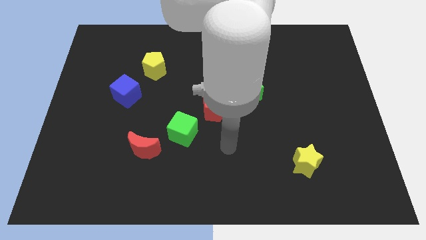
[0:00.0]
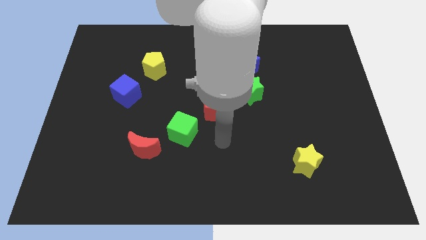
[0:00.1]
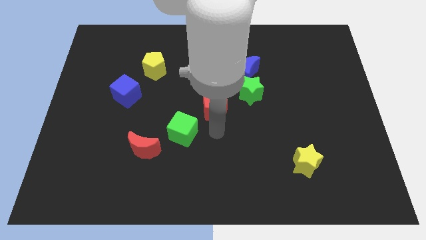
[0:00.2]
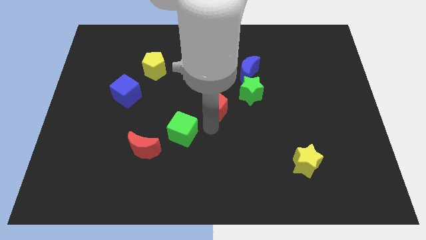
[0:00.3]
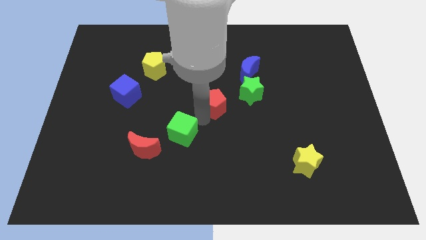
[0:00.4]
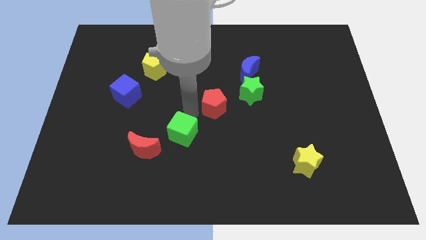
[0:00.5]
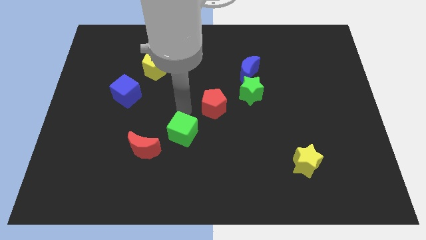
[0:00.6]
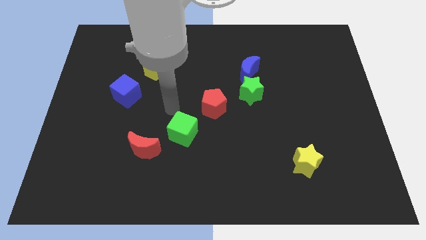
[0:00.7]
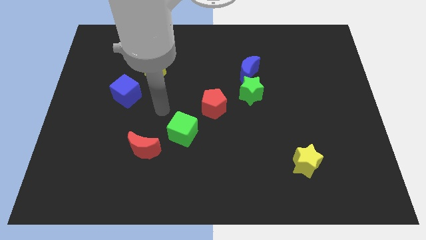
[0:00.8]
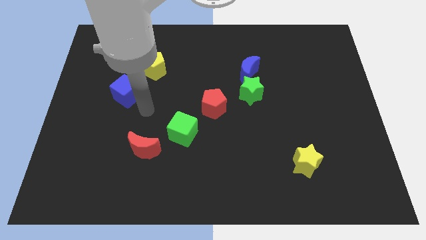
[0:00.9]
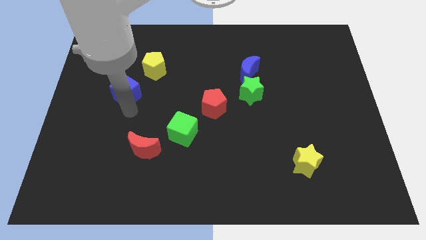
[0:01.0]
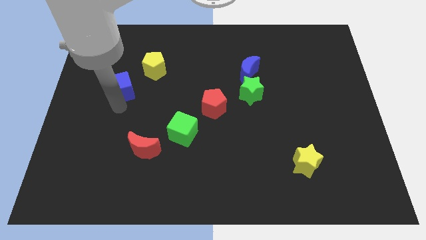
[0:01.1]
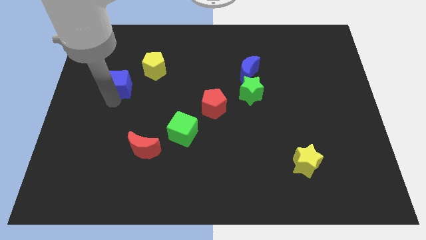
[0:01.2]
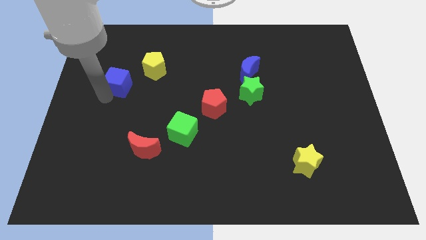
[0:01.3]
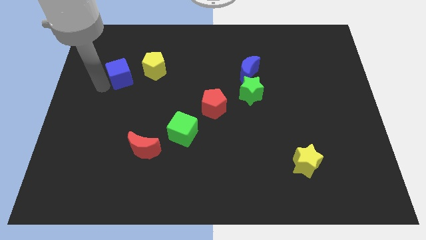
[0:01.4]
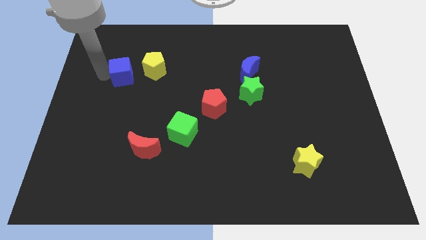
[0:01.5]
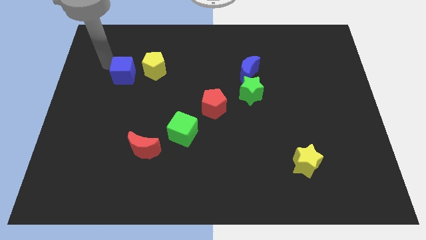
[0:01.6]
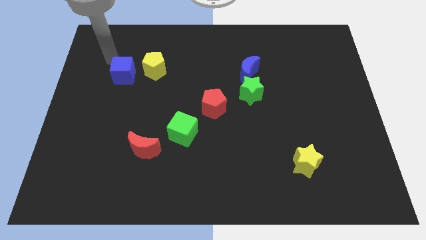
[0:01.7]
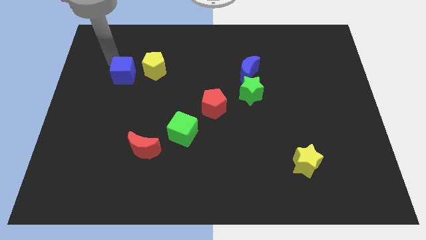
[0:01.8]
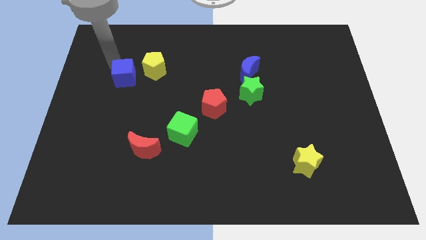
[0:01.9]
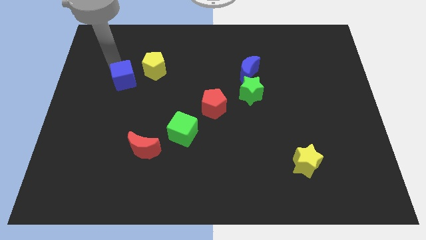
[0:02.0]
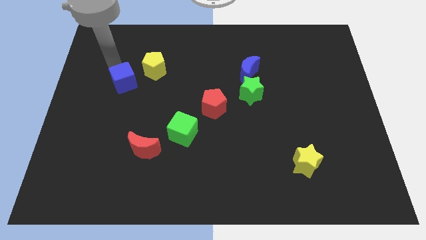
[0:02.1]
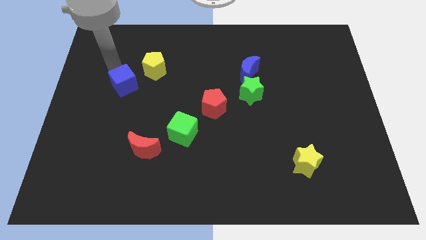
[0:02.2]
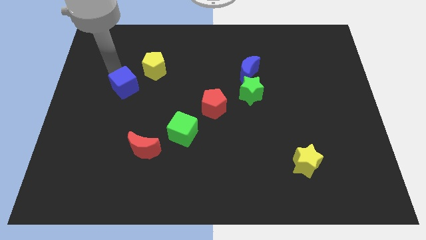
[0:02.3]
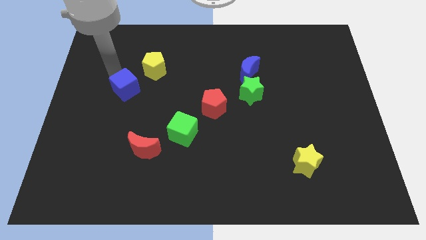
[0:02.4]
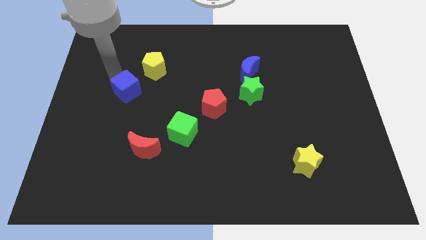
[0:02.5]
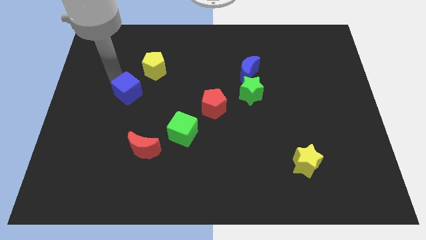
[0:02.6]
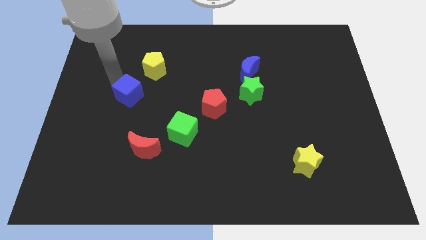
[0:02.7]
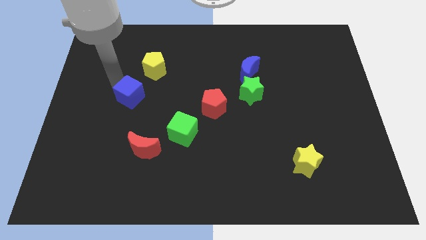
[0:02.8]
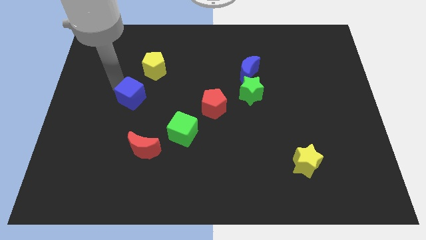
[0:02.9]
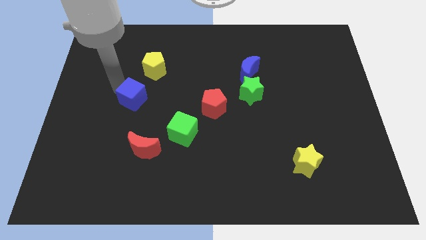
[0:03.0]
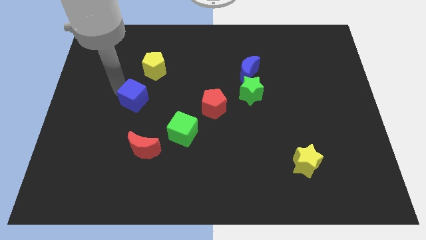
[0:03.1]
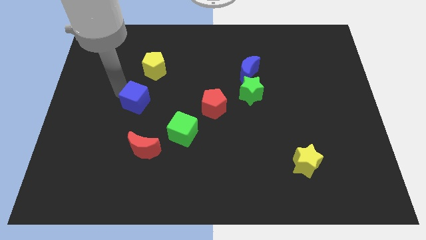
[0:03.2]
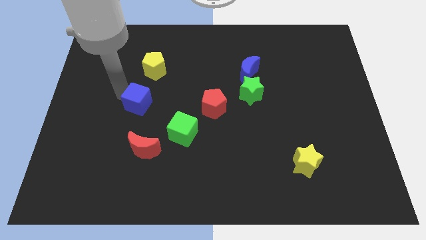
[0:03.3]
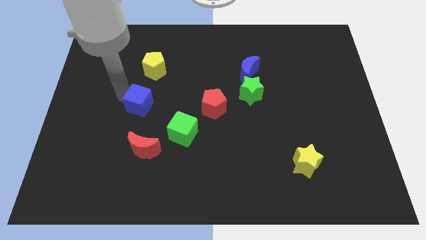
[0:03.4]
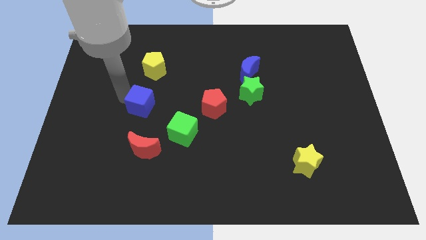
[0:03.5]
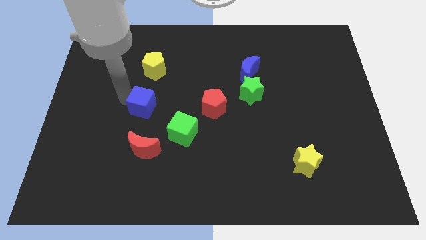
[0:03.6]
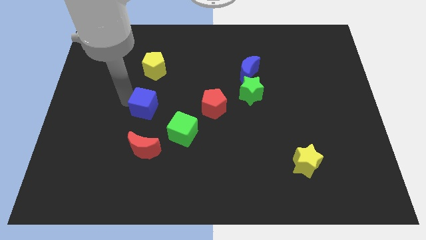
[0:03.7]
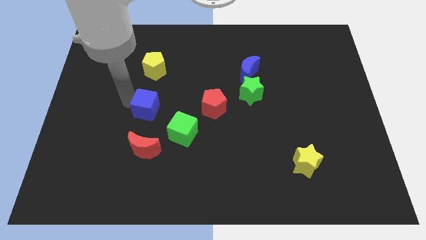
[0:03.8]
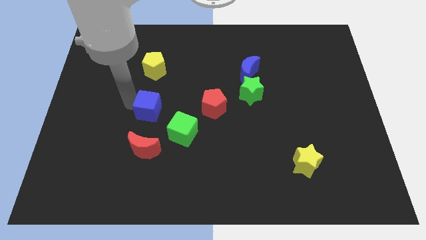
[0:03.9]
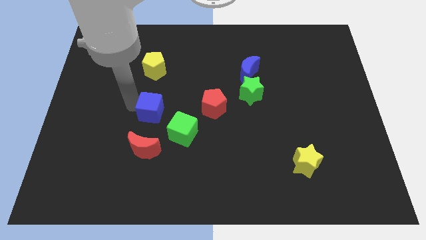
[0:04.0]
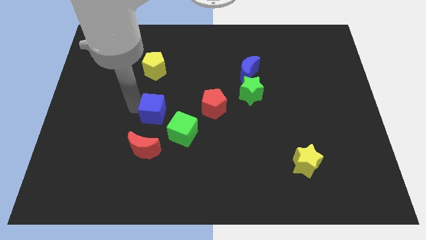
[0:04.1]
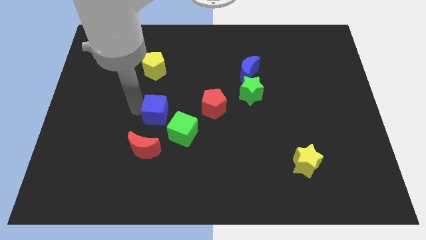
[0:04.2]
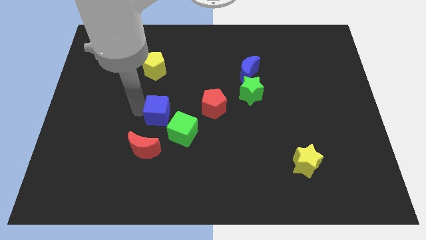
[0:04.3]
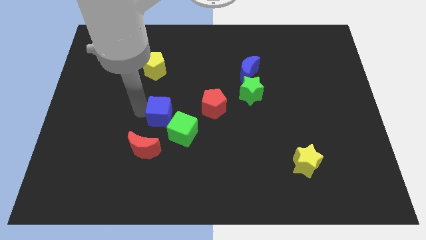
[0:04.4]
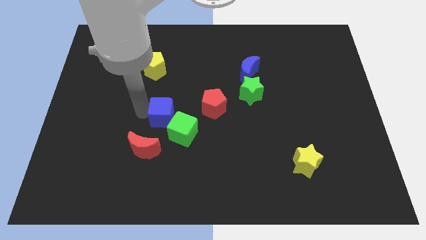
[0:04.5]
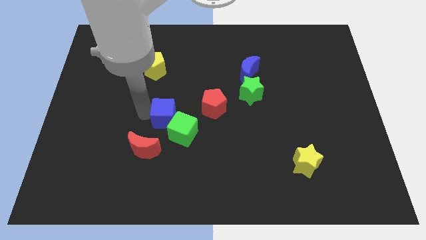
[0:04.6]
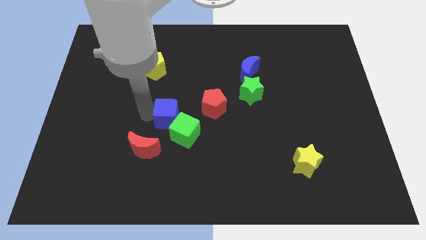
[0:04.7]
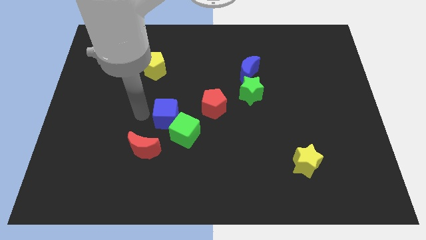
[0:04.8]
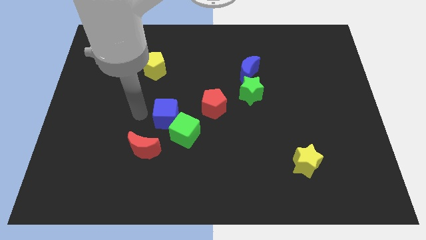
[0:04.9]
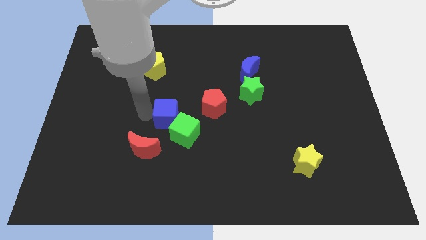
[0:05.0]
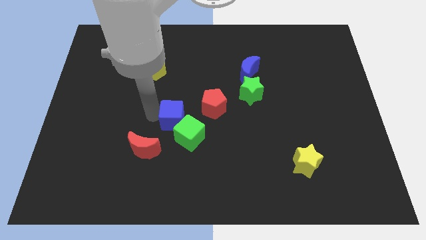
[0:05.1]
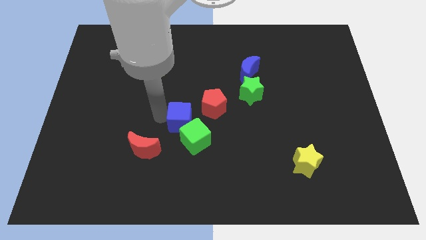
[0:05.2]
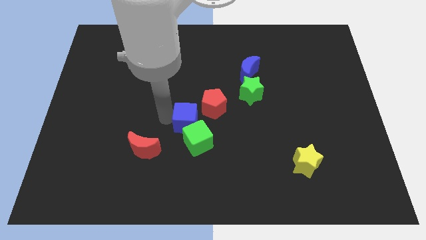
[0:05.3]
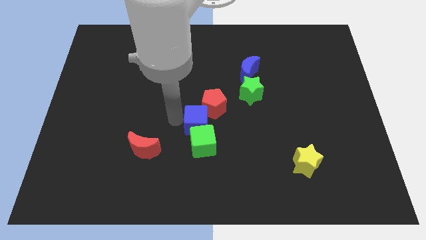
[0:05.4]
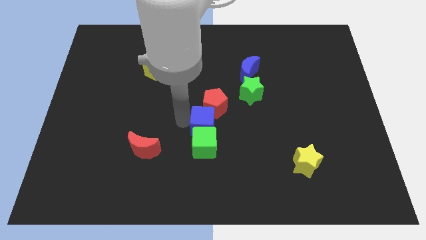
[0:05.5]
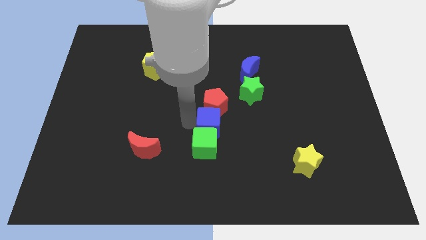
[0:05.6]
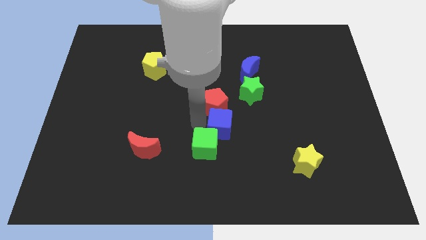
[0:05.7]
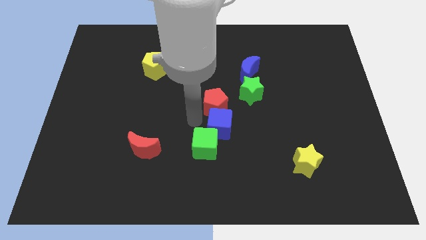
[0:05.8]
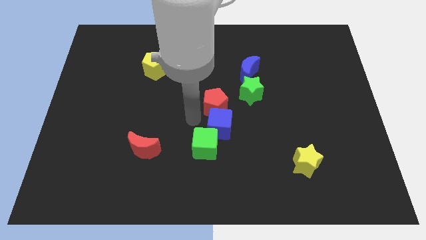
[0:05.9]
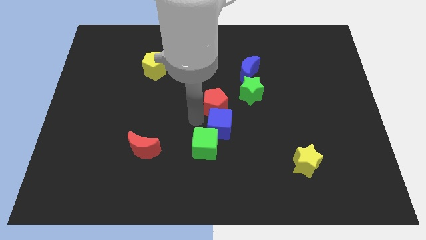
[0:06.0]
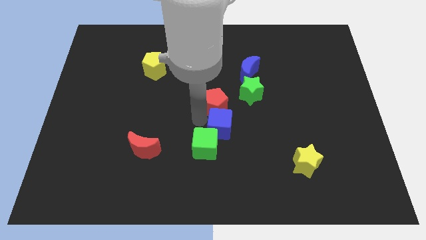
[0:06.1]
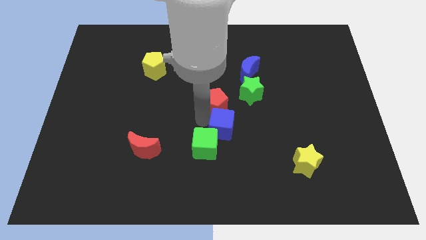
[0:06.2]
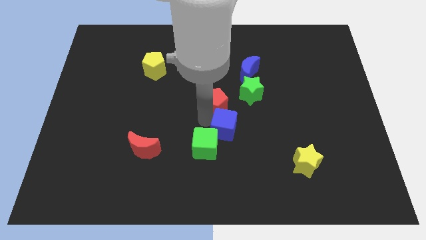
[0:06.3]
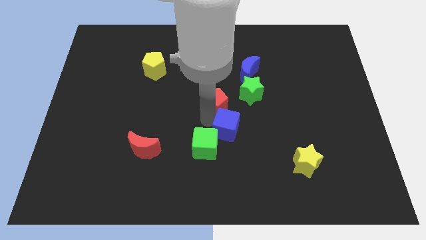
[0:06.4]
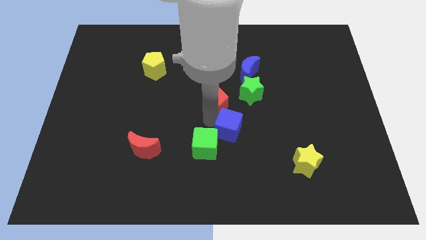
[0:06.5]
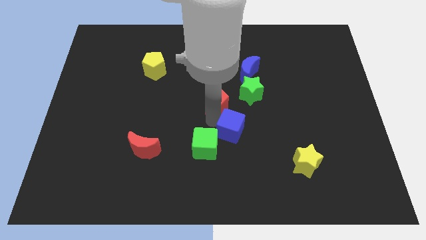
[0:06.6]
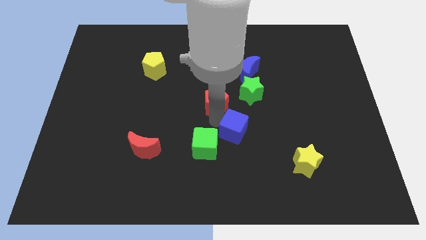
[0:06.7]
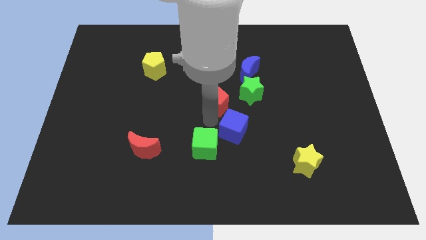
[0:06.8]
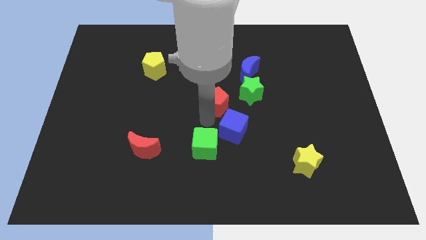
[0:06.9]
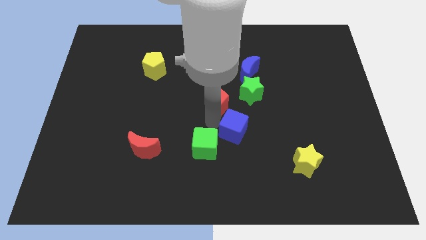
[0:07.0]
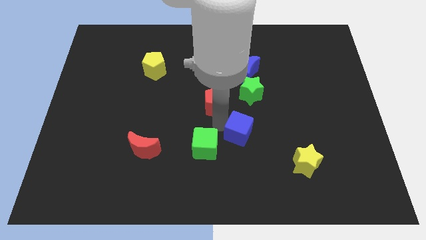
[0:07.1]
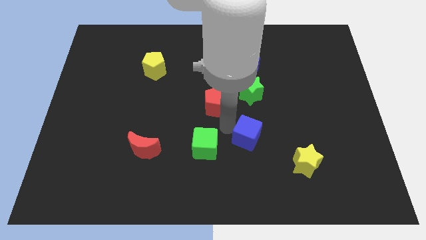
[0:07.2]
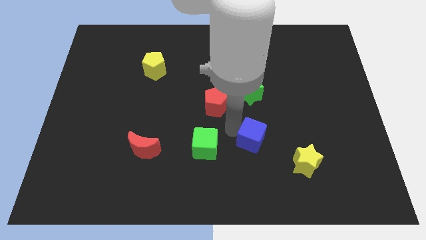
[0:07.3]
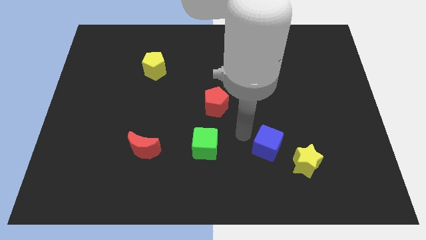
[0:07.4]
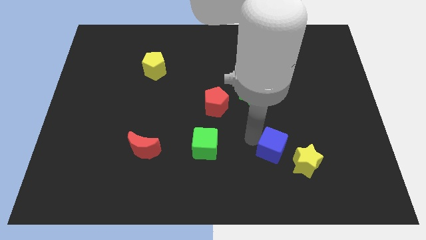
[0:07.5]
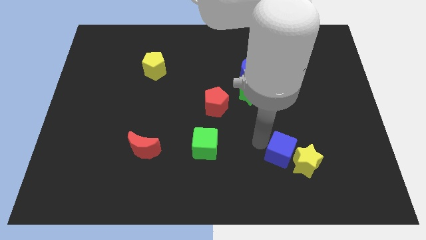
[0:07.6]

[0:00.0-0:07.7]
put the blue cube next to the yellow star
